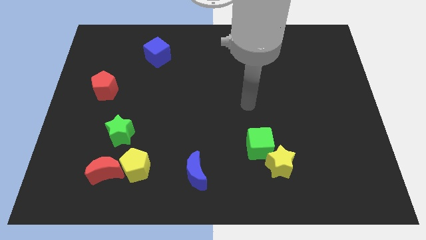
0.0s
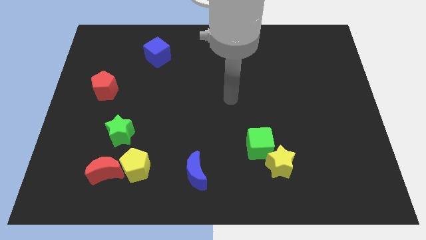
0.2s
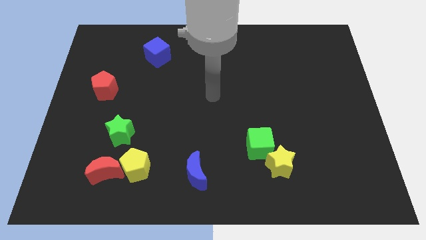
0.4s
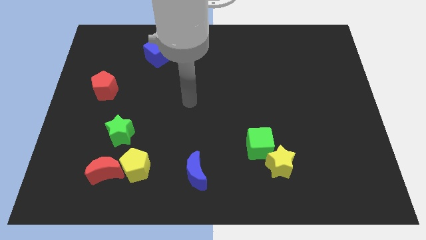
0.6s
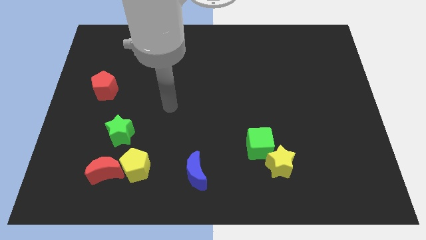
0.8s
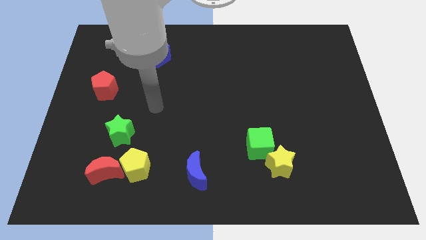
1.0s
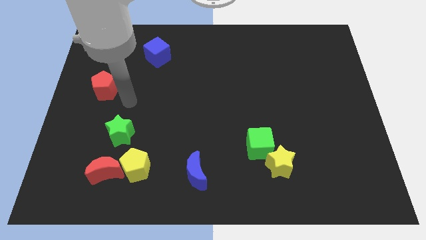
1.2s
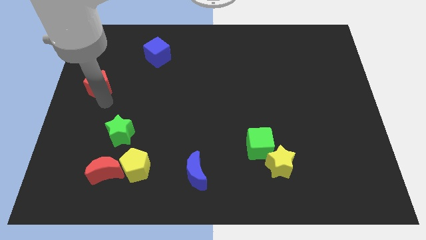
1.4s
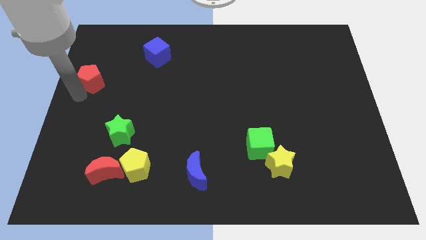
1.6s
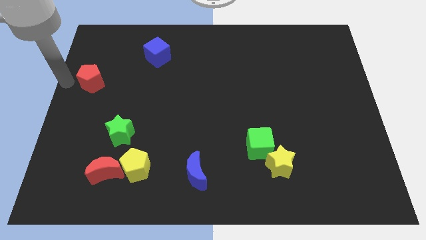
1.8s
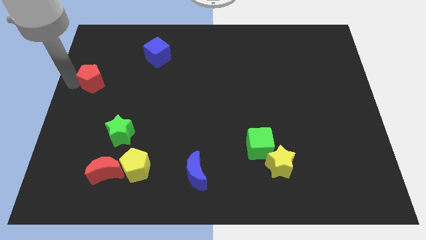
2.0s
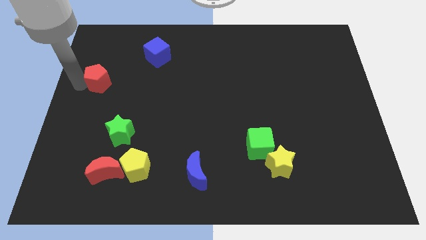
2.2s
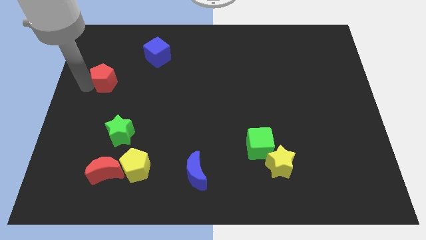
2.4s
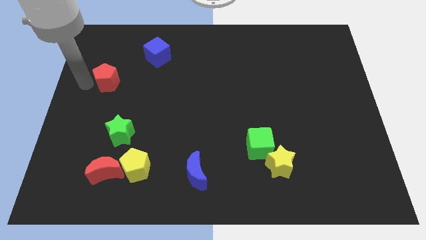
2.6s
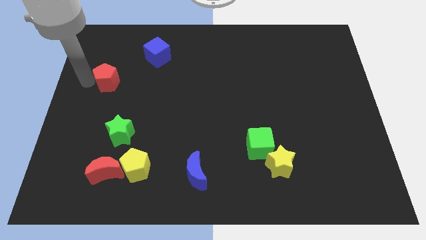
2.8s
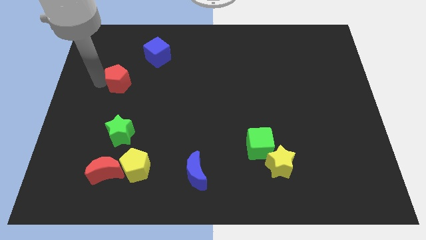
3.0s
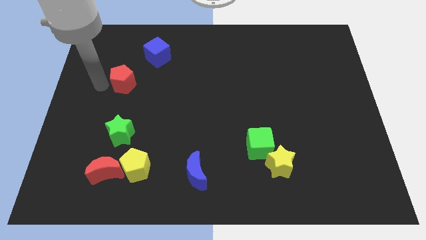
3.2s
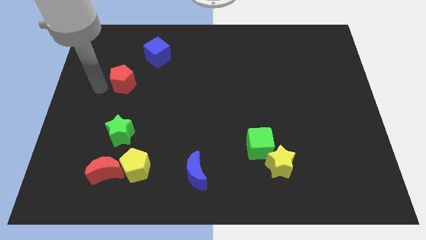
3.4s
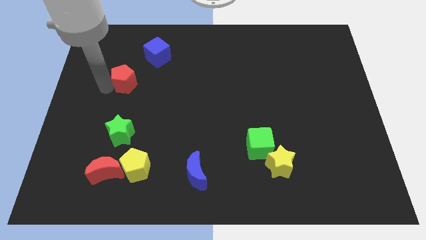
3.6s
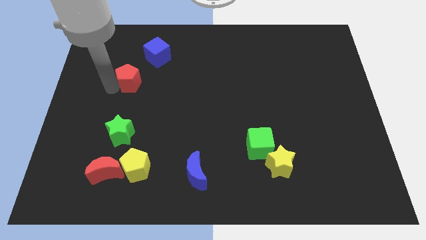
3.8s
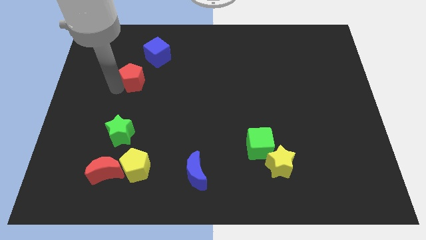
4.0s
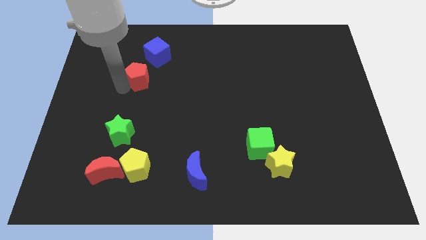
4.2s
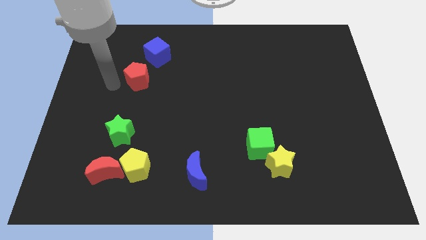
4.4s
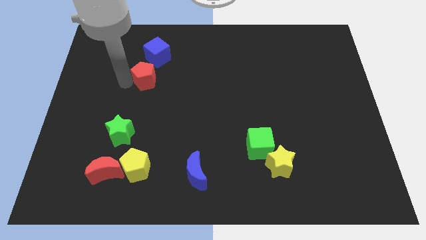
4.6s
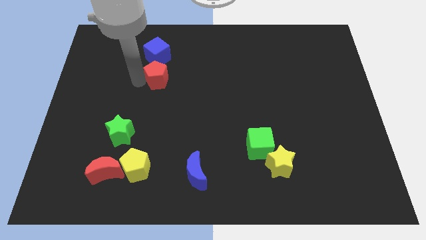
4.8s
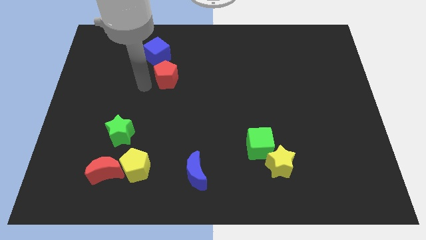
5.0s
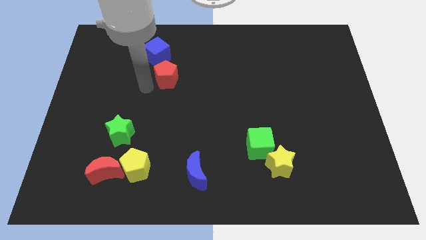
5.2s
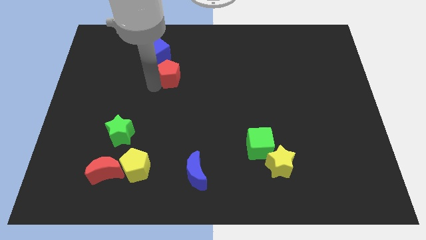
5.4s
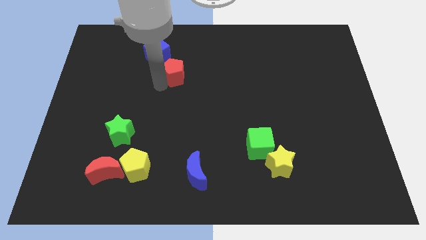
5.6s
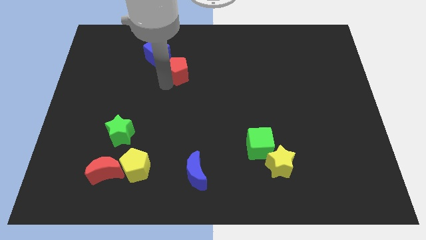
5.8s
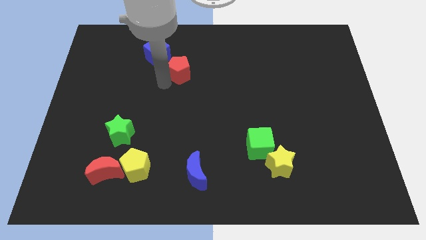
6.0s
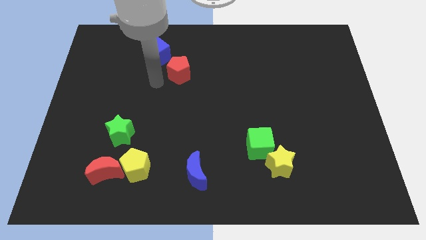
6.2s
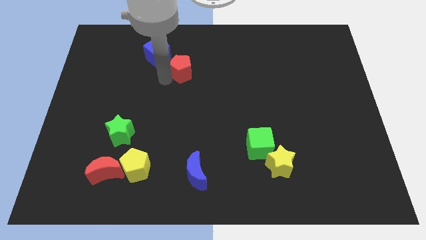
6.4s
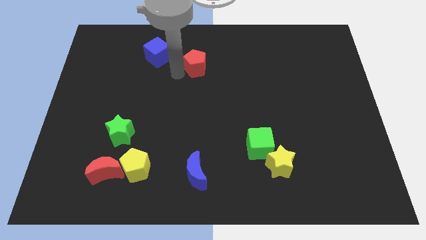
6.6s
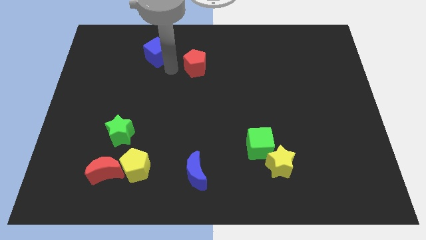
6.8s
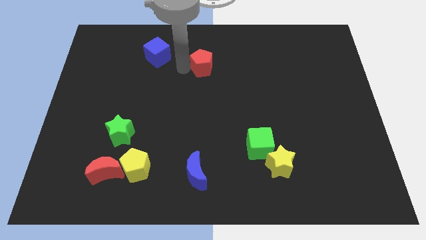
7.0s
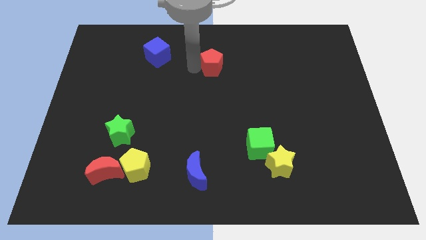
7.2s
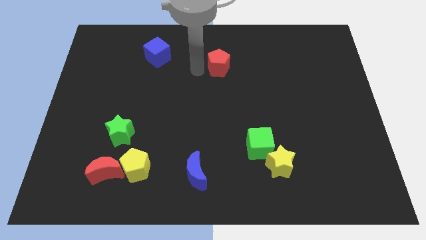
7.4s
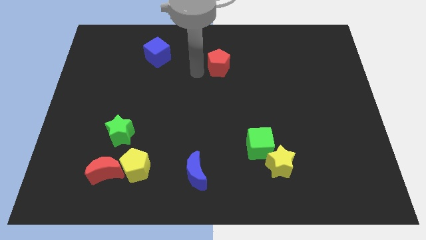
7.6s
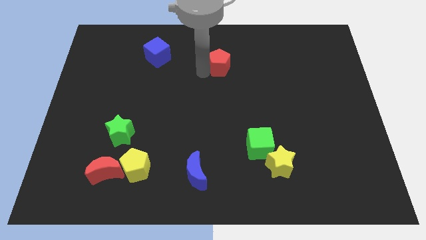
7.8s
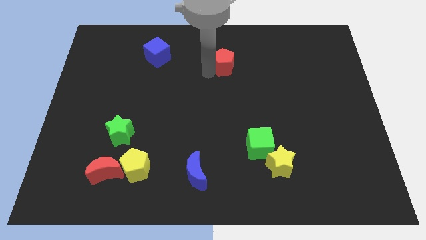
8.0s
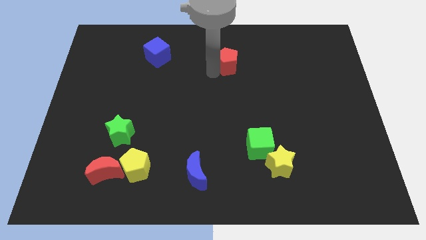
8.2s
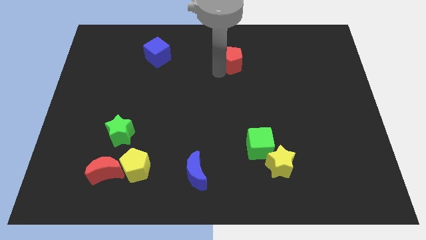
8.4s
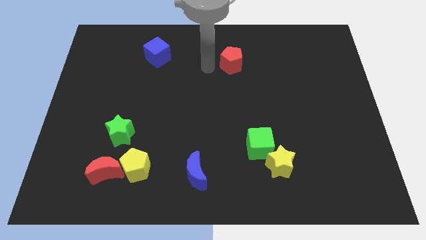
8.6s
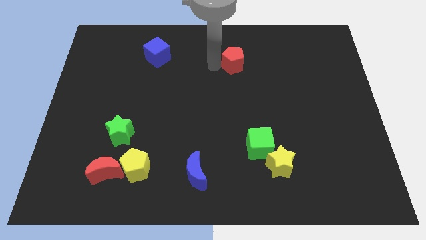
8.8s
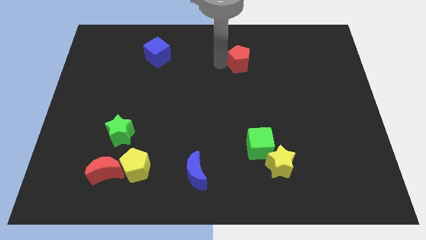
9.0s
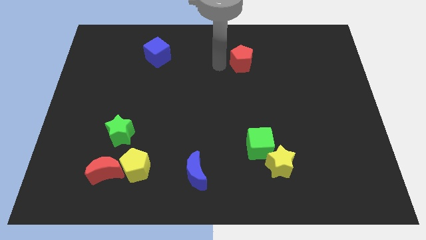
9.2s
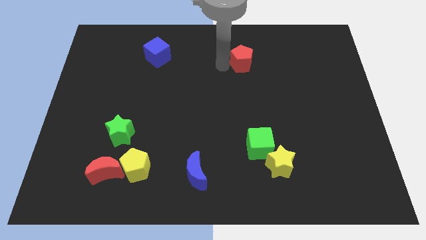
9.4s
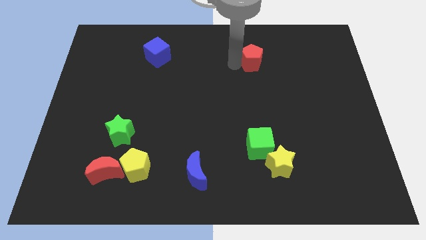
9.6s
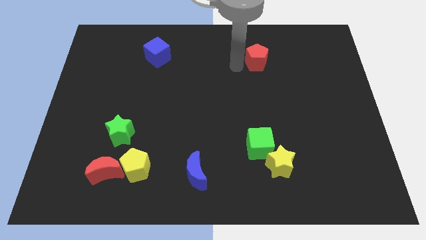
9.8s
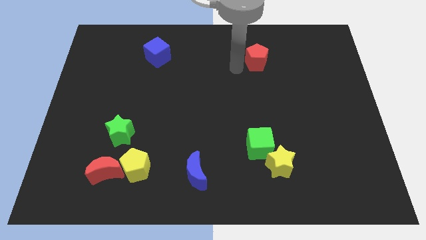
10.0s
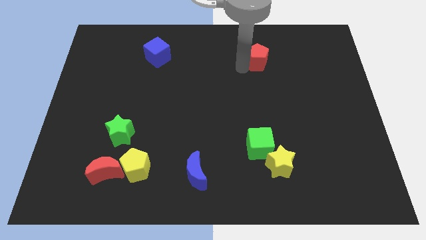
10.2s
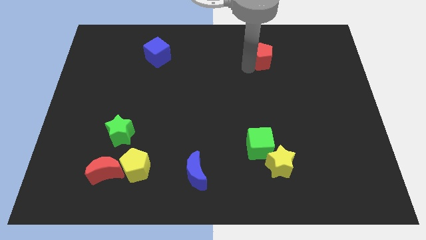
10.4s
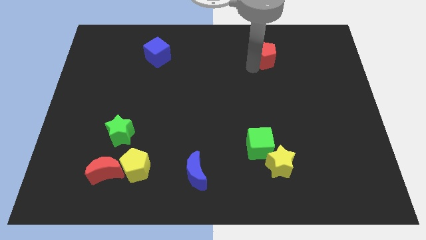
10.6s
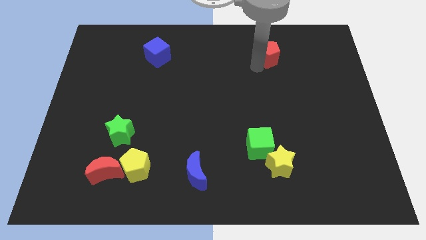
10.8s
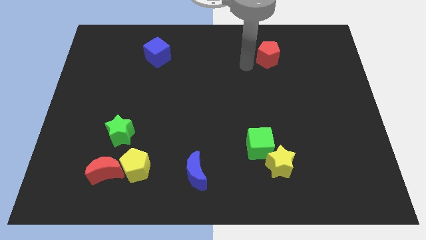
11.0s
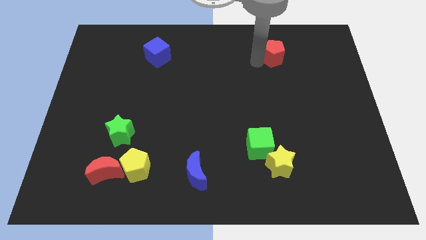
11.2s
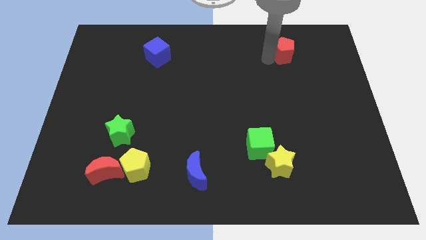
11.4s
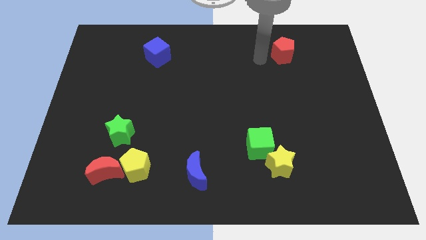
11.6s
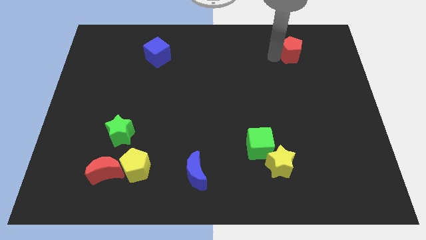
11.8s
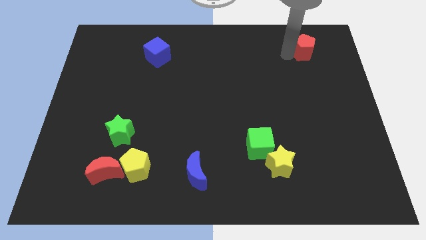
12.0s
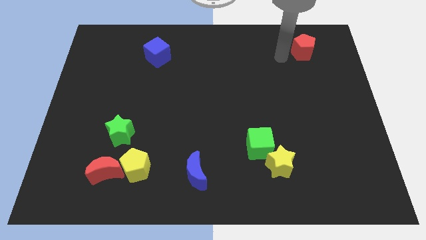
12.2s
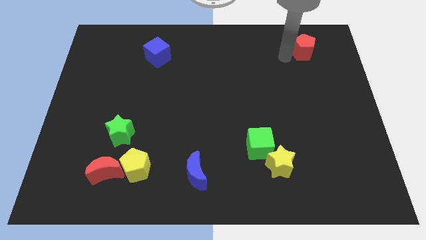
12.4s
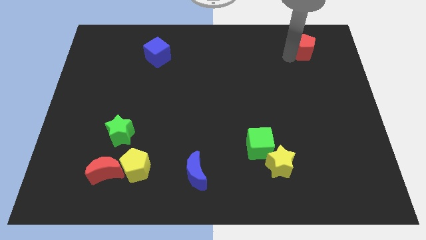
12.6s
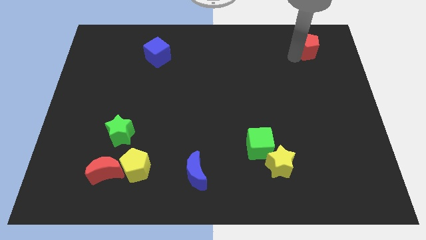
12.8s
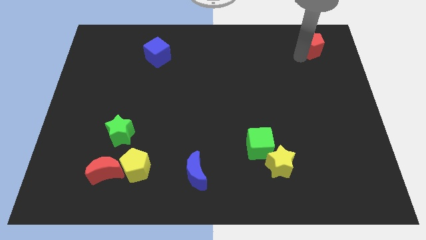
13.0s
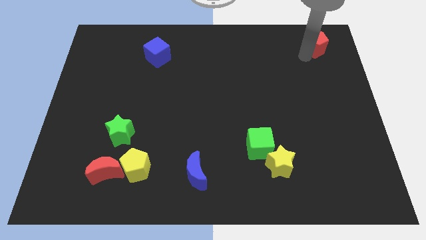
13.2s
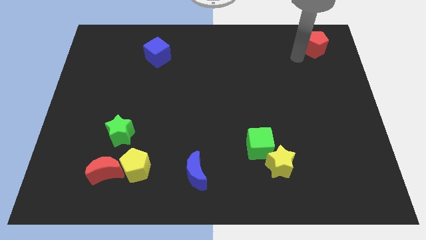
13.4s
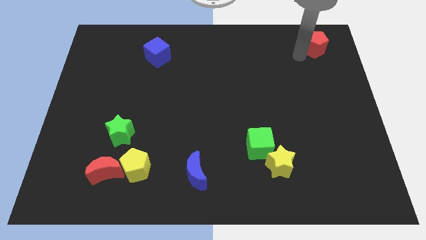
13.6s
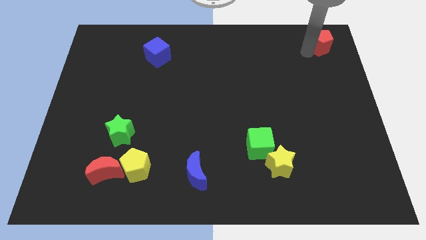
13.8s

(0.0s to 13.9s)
put the red pentagon to the top right of the board
